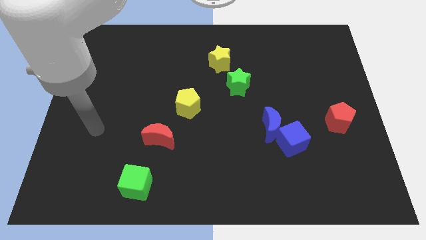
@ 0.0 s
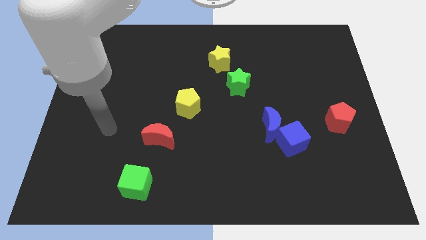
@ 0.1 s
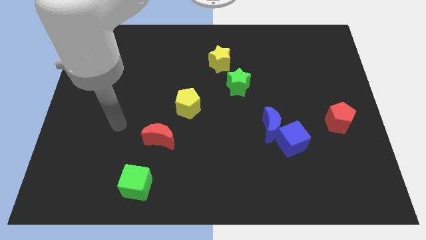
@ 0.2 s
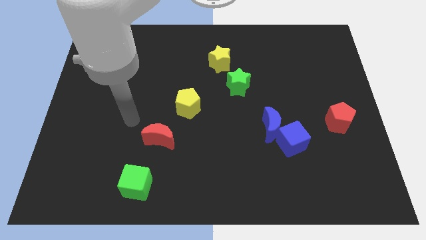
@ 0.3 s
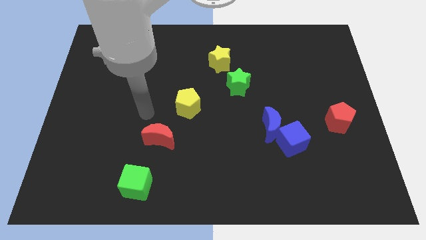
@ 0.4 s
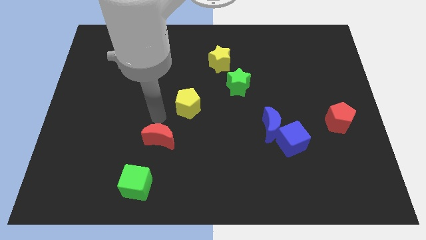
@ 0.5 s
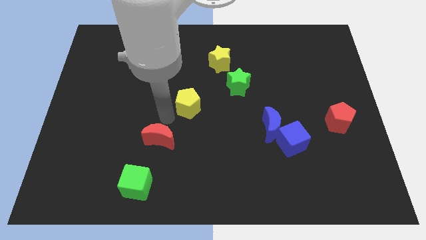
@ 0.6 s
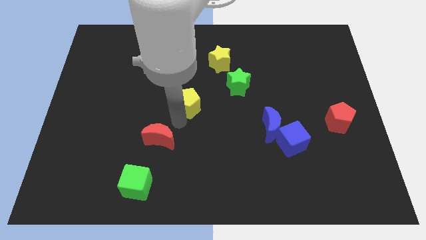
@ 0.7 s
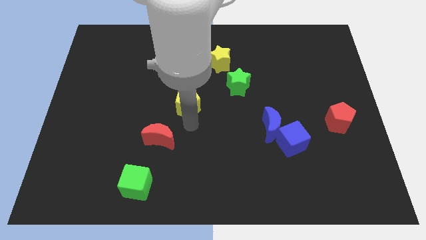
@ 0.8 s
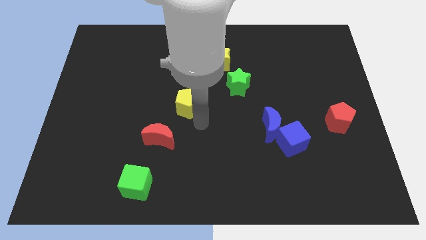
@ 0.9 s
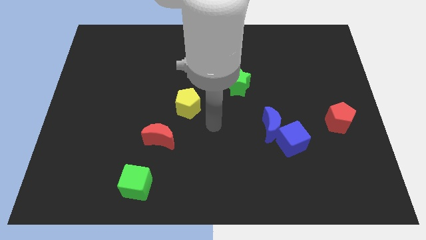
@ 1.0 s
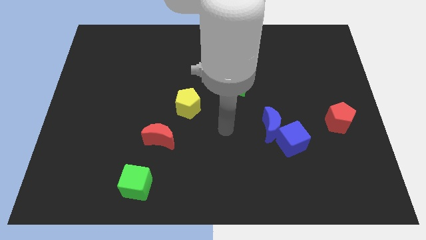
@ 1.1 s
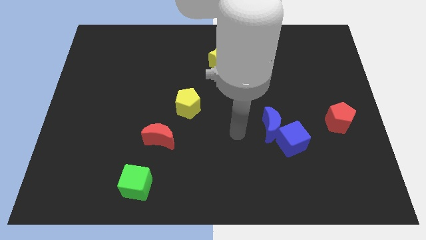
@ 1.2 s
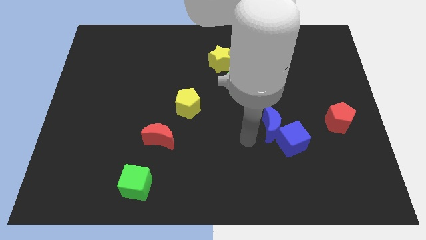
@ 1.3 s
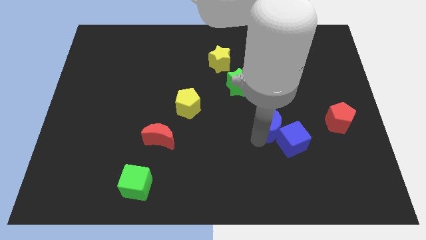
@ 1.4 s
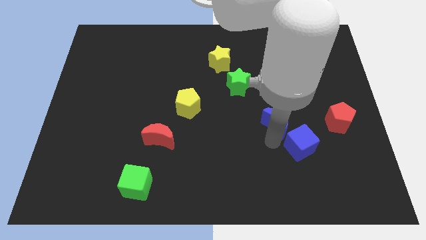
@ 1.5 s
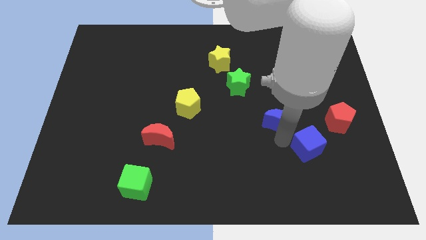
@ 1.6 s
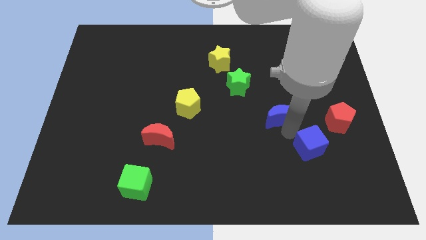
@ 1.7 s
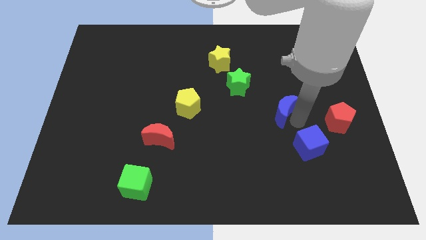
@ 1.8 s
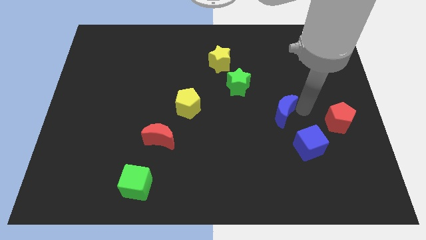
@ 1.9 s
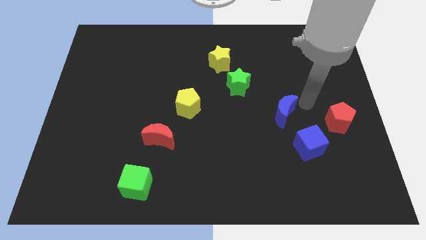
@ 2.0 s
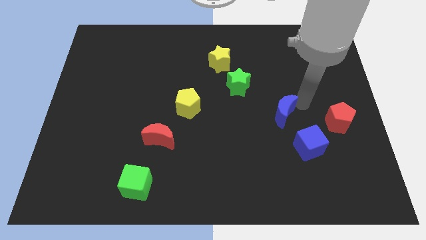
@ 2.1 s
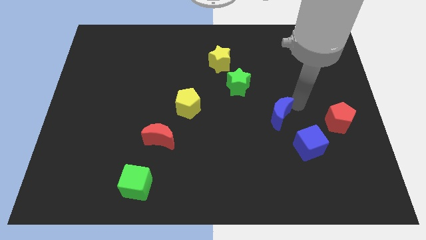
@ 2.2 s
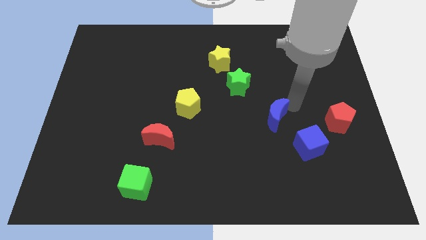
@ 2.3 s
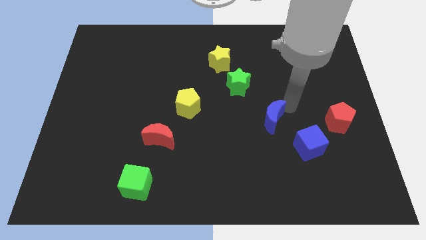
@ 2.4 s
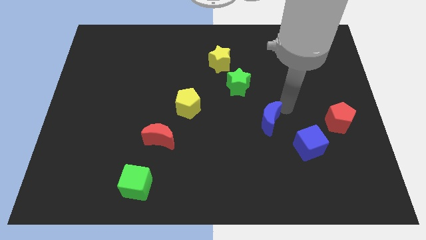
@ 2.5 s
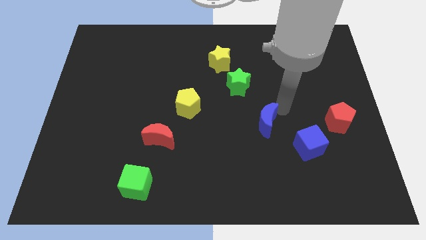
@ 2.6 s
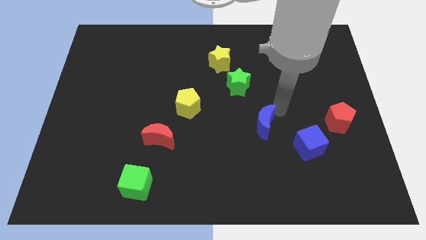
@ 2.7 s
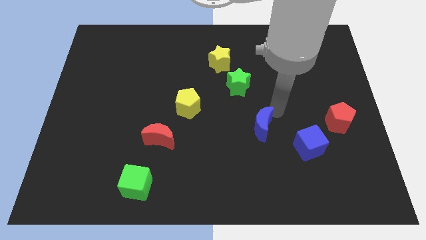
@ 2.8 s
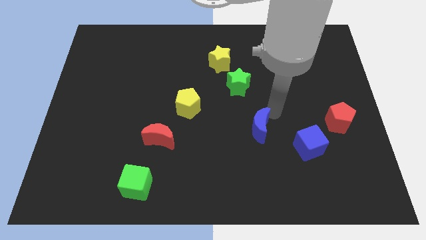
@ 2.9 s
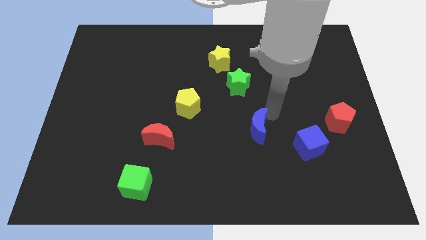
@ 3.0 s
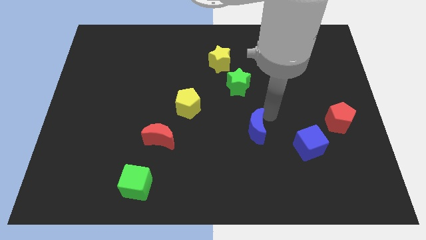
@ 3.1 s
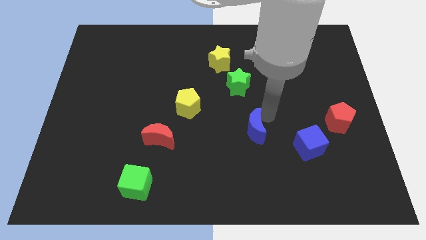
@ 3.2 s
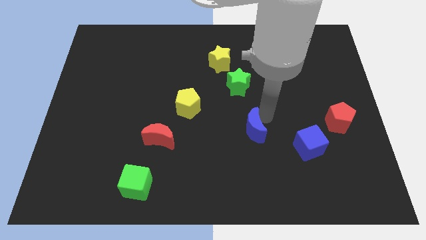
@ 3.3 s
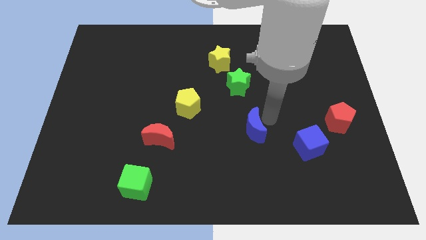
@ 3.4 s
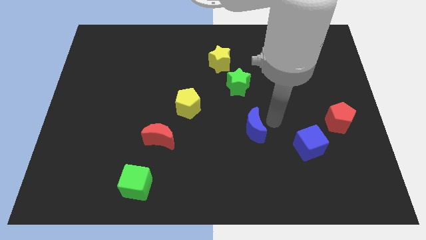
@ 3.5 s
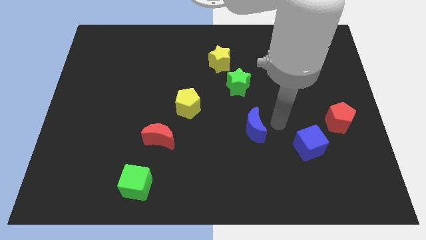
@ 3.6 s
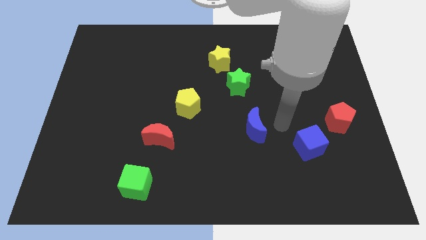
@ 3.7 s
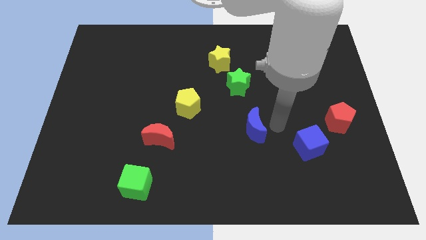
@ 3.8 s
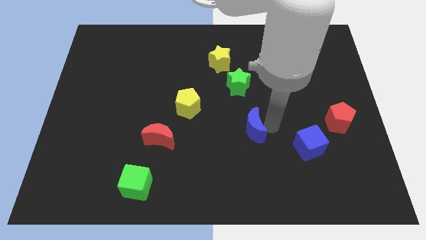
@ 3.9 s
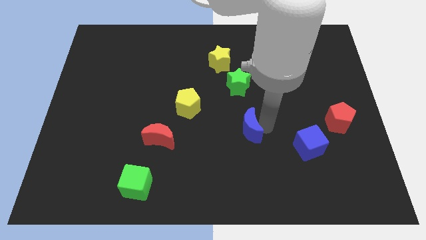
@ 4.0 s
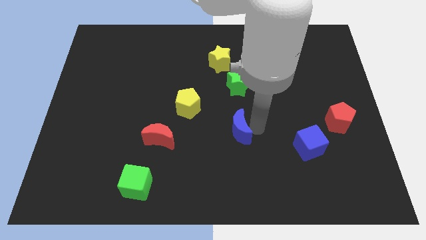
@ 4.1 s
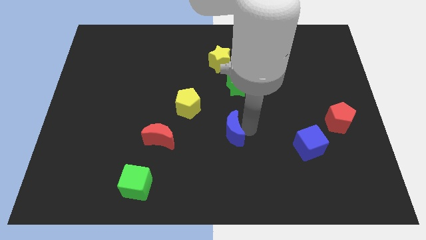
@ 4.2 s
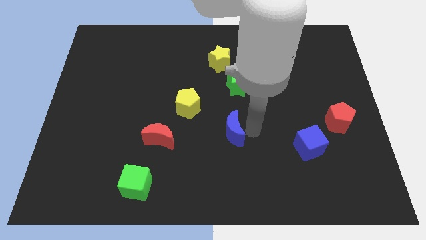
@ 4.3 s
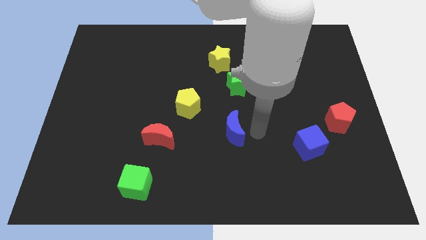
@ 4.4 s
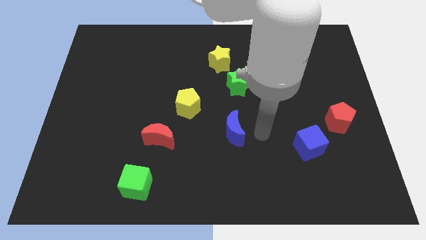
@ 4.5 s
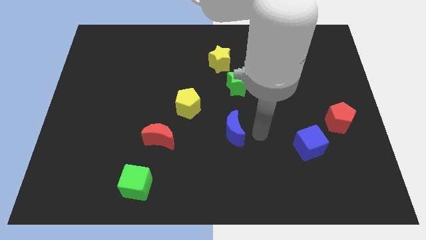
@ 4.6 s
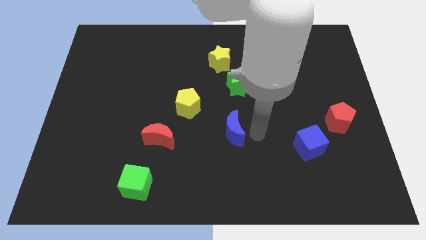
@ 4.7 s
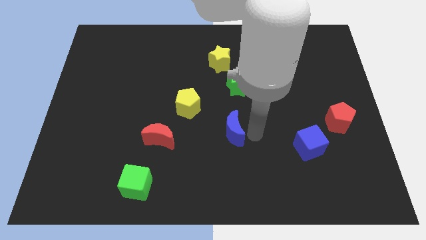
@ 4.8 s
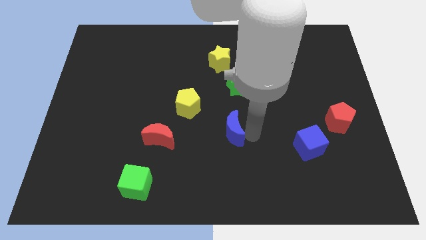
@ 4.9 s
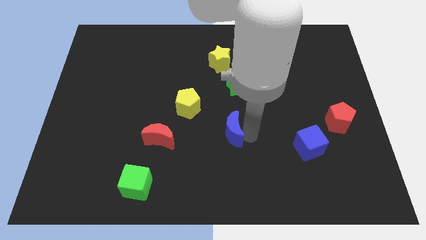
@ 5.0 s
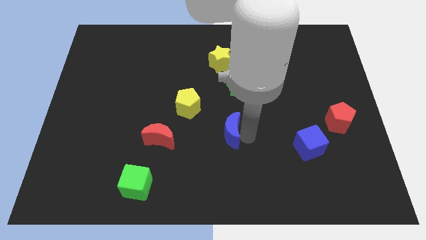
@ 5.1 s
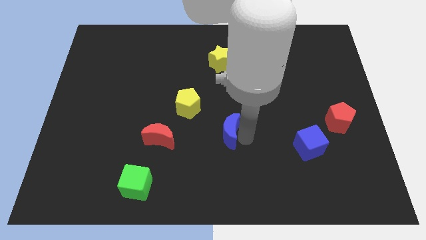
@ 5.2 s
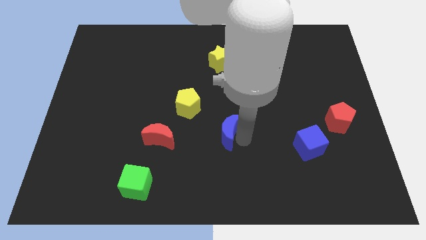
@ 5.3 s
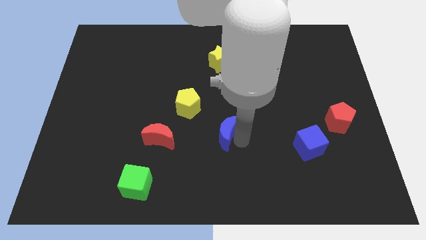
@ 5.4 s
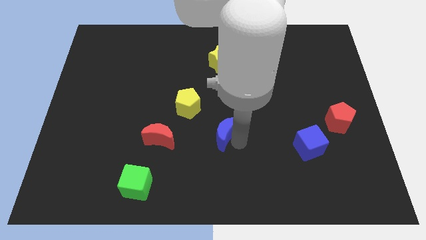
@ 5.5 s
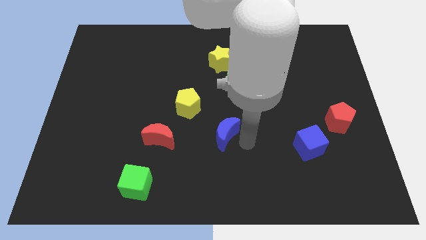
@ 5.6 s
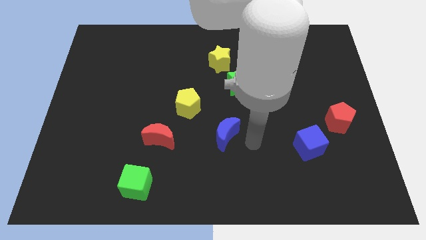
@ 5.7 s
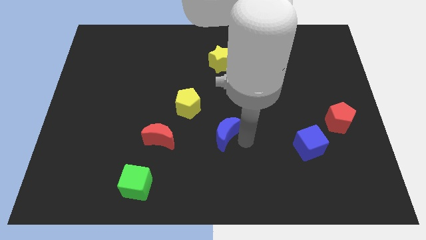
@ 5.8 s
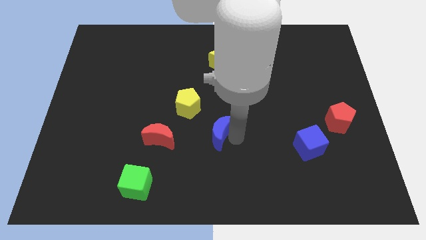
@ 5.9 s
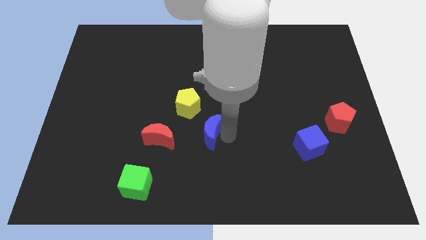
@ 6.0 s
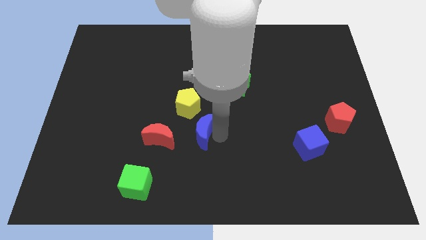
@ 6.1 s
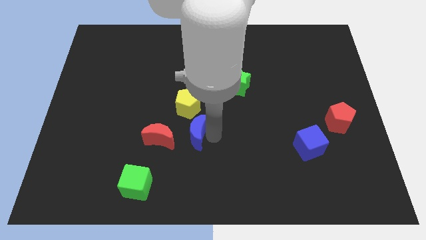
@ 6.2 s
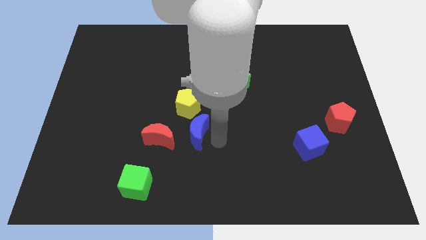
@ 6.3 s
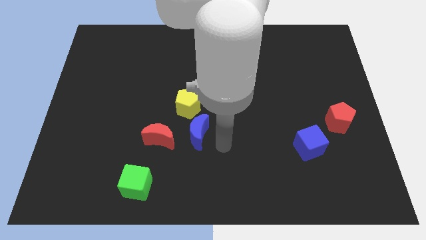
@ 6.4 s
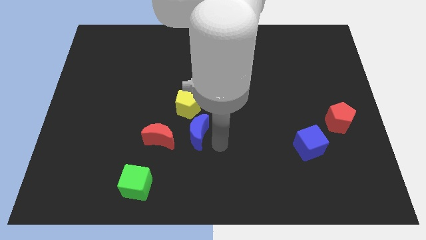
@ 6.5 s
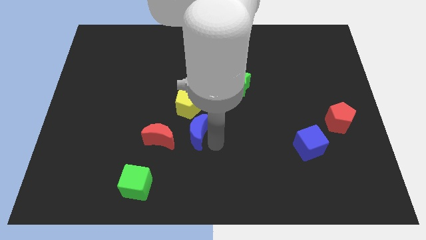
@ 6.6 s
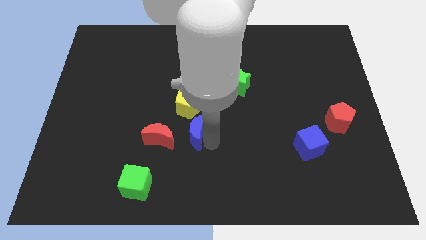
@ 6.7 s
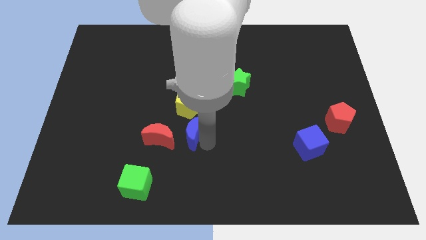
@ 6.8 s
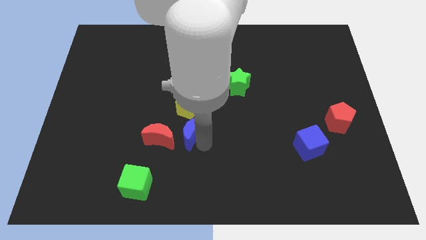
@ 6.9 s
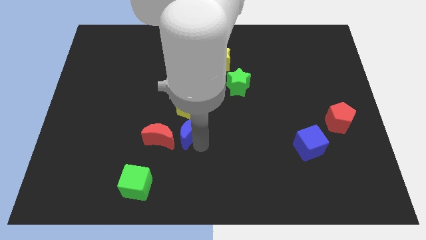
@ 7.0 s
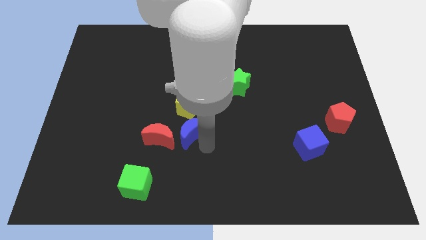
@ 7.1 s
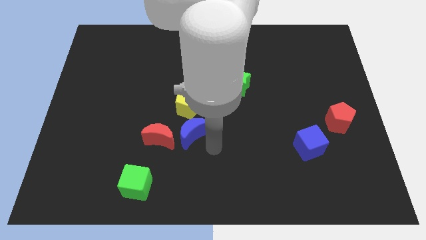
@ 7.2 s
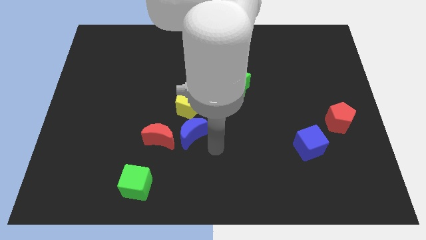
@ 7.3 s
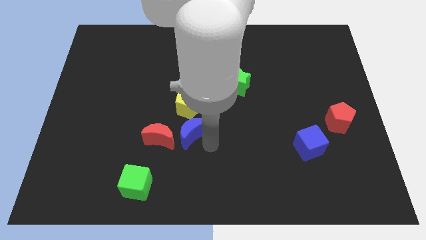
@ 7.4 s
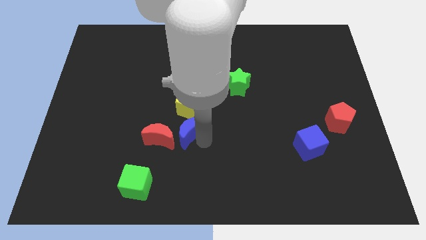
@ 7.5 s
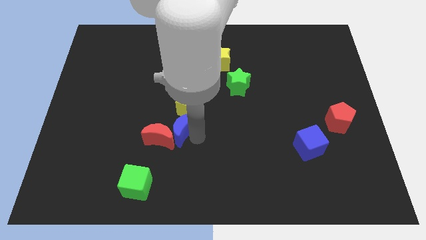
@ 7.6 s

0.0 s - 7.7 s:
push the blue moon to the left

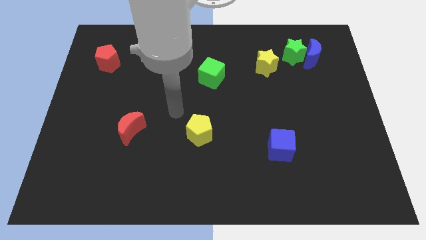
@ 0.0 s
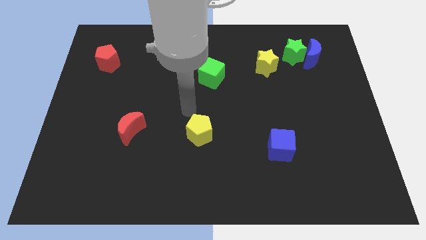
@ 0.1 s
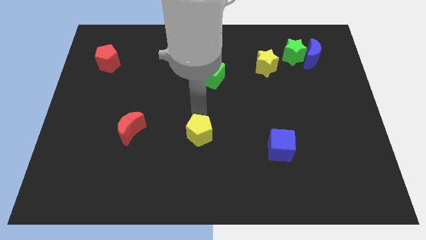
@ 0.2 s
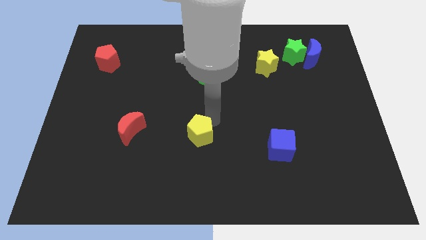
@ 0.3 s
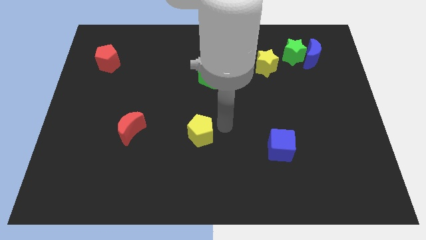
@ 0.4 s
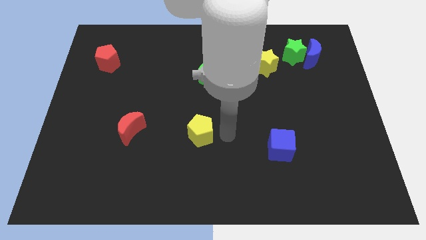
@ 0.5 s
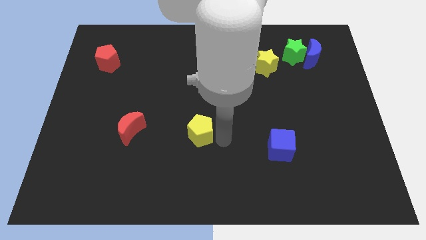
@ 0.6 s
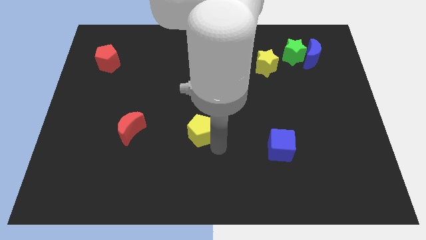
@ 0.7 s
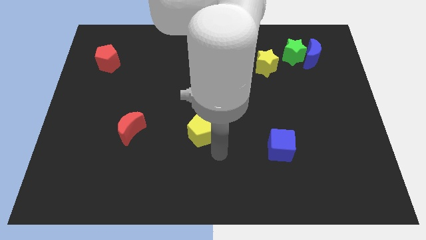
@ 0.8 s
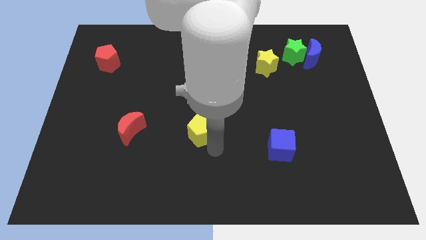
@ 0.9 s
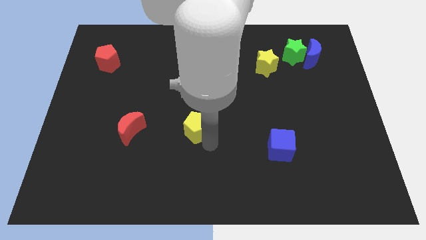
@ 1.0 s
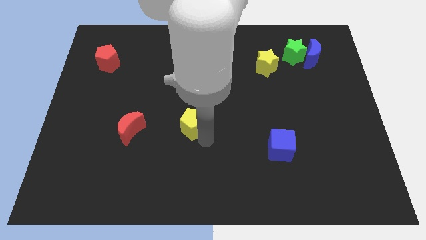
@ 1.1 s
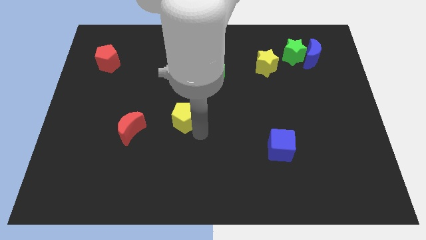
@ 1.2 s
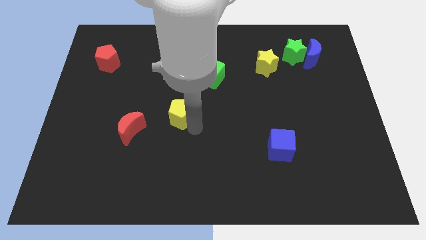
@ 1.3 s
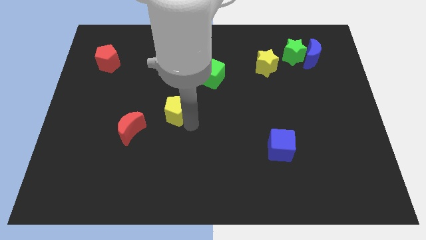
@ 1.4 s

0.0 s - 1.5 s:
slide the yellow pentagon up and then to the left a little bit
